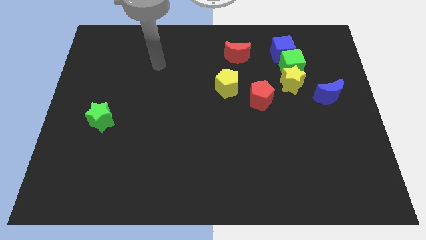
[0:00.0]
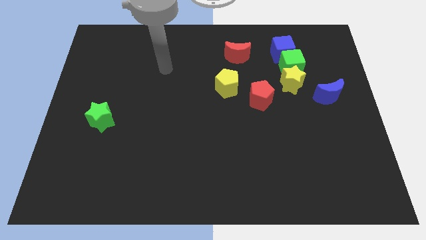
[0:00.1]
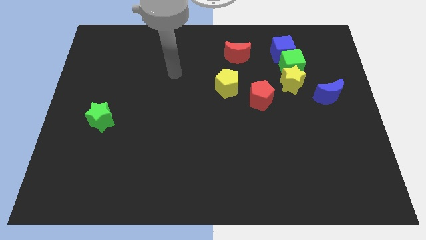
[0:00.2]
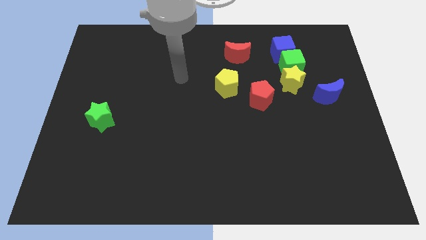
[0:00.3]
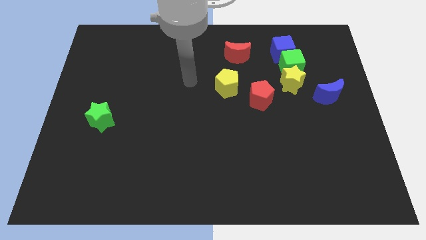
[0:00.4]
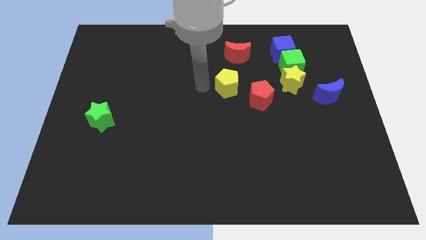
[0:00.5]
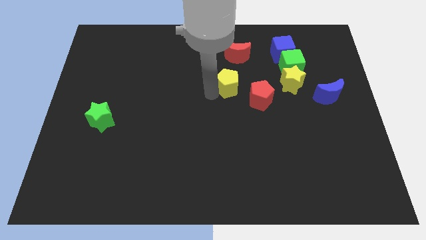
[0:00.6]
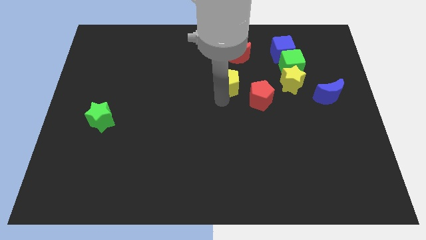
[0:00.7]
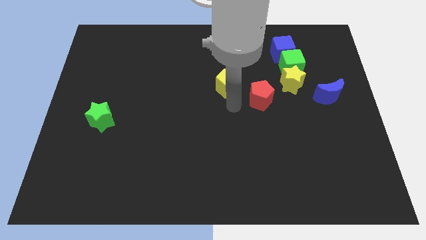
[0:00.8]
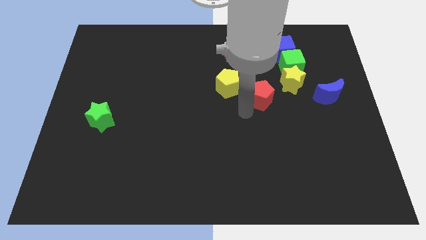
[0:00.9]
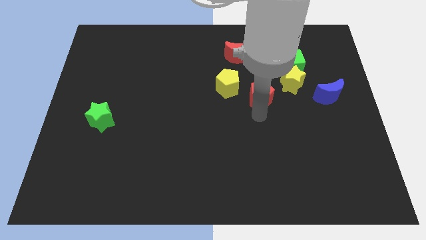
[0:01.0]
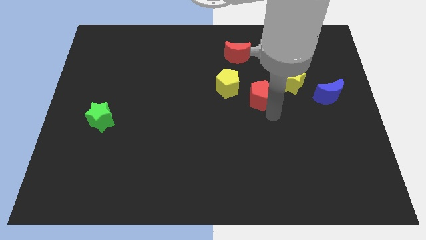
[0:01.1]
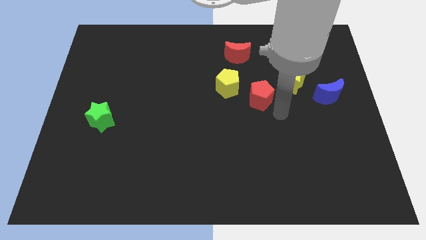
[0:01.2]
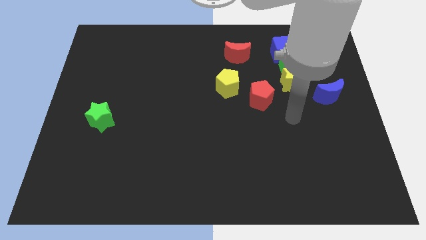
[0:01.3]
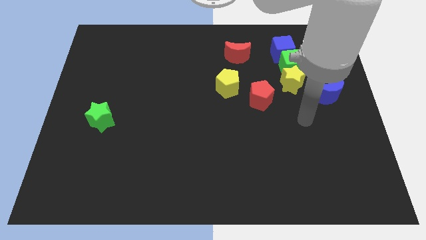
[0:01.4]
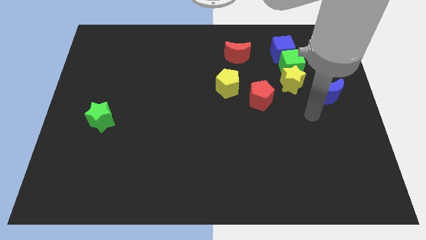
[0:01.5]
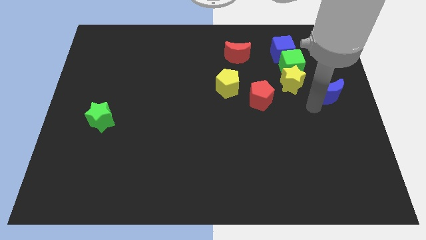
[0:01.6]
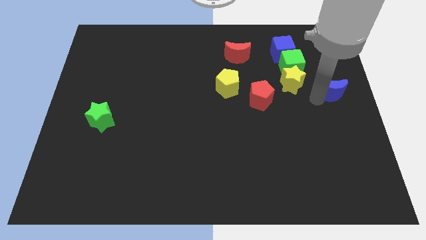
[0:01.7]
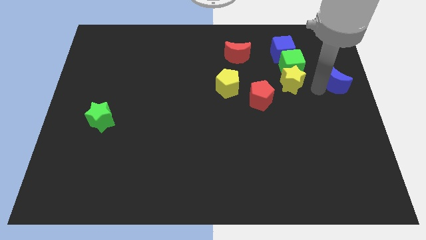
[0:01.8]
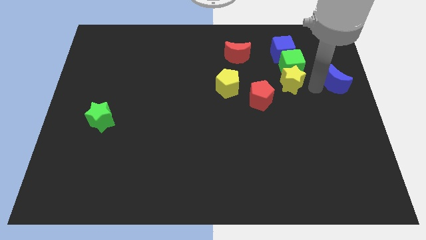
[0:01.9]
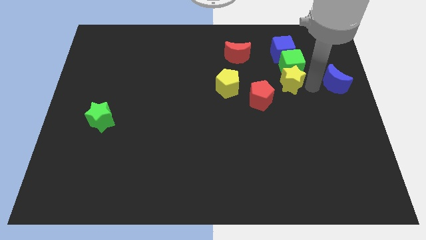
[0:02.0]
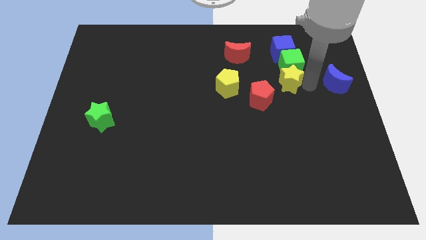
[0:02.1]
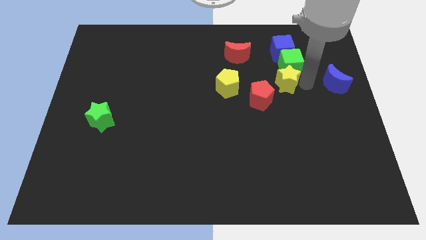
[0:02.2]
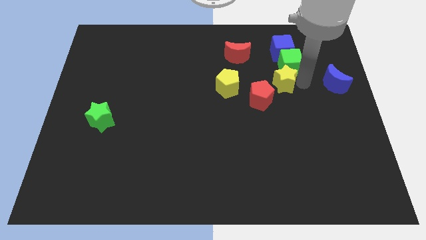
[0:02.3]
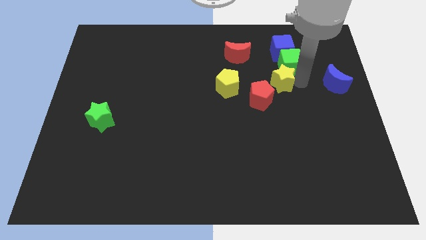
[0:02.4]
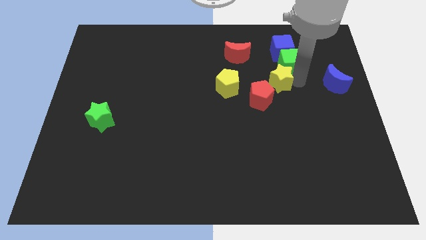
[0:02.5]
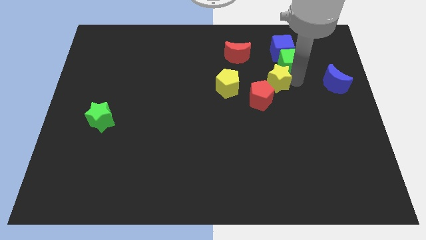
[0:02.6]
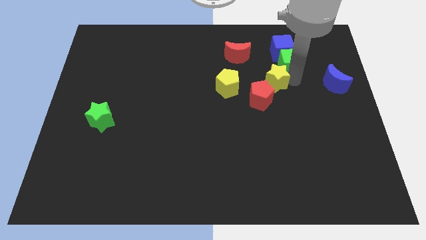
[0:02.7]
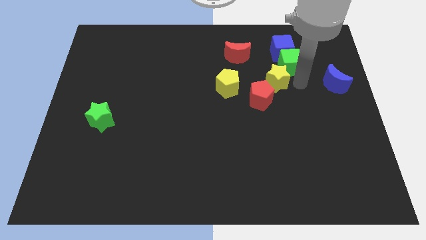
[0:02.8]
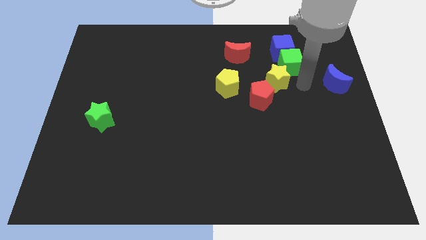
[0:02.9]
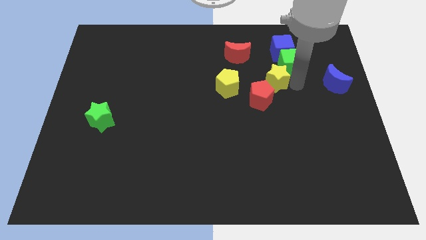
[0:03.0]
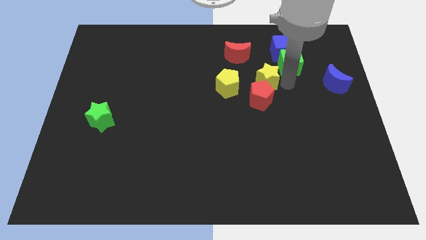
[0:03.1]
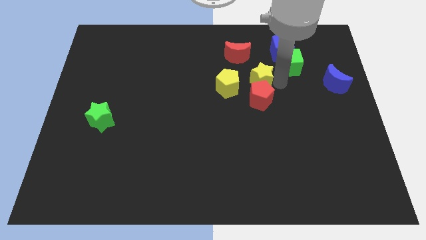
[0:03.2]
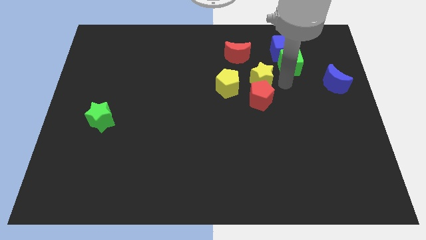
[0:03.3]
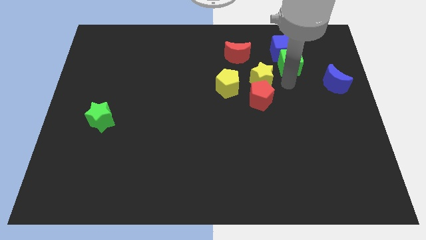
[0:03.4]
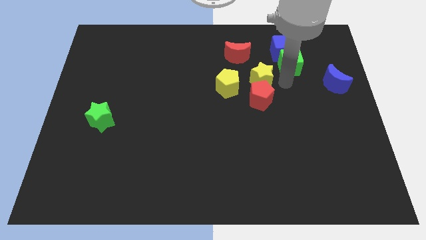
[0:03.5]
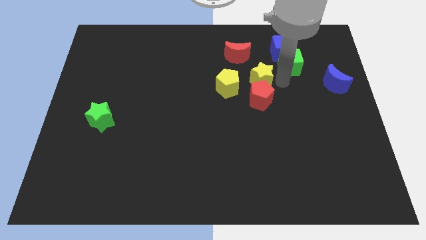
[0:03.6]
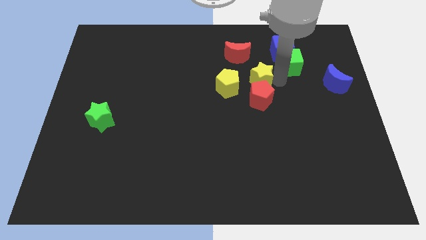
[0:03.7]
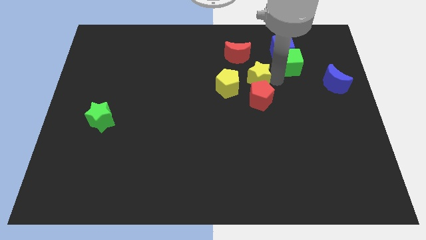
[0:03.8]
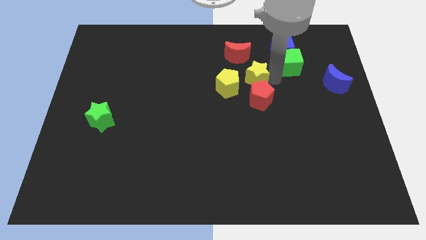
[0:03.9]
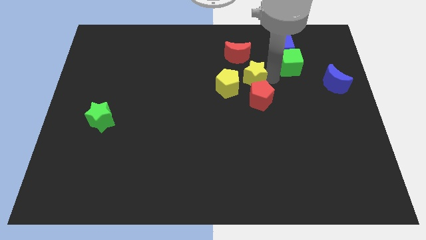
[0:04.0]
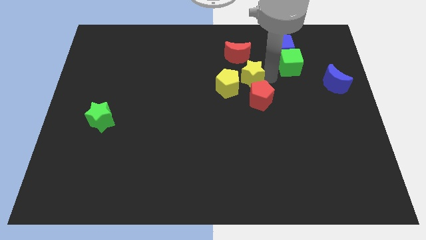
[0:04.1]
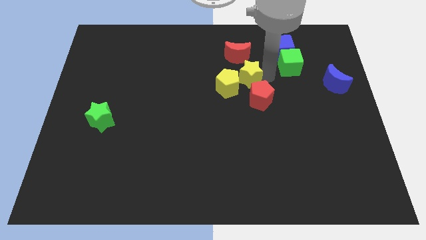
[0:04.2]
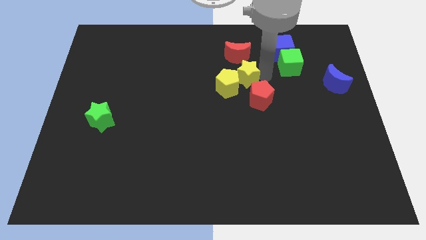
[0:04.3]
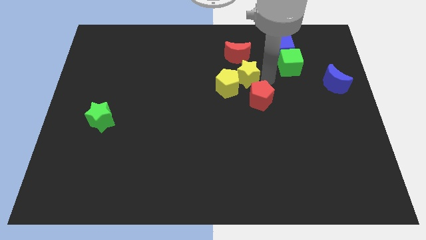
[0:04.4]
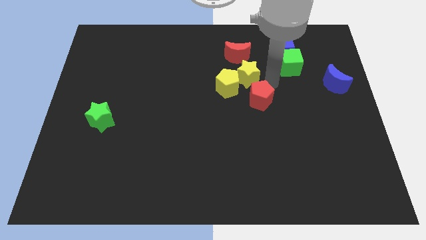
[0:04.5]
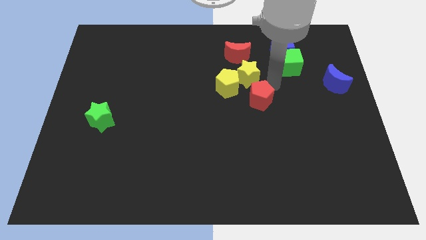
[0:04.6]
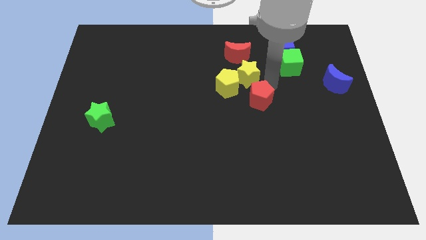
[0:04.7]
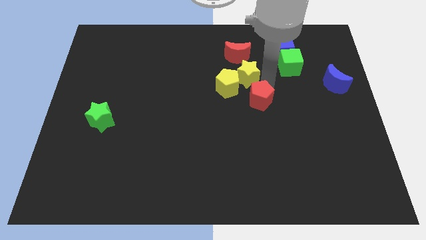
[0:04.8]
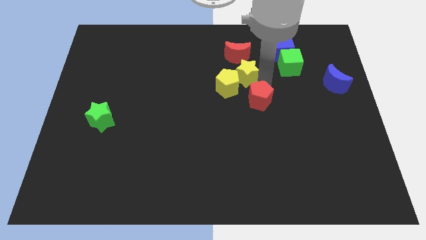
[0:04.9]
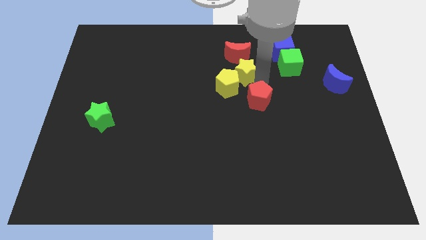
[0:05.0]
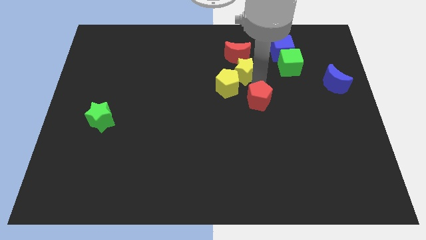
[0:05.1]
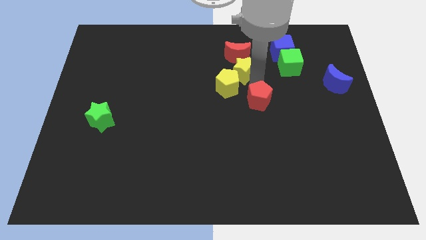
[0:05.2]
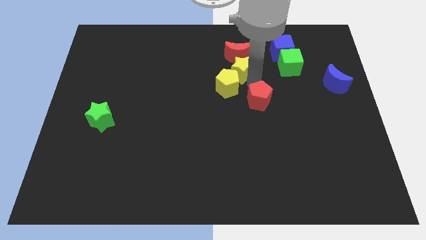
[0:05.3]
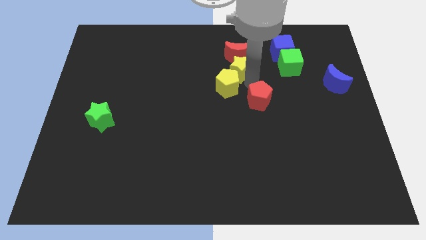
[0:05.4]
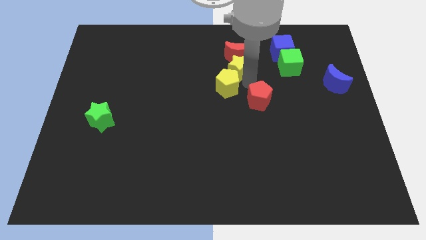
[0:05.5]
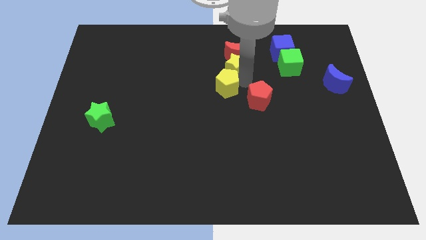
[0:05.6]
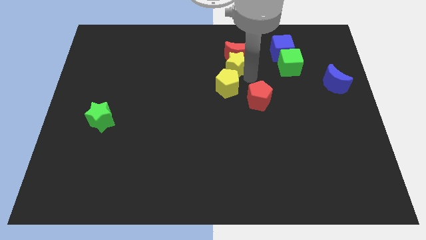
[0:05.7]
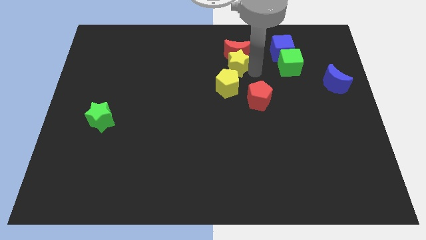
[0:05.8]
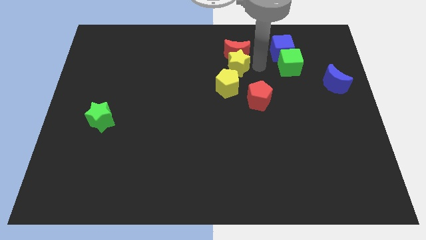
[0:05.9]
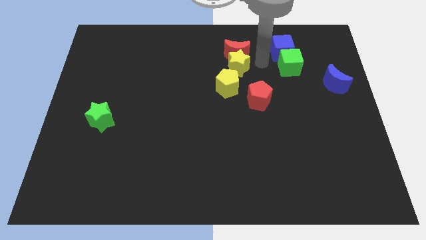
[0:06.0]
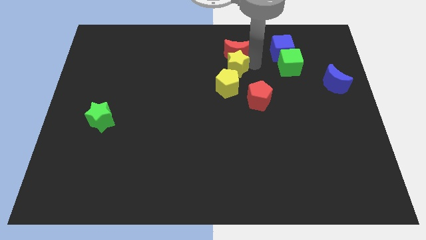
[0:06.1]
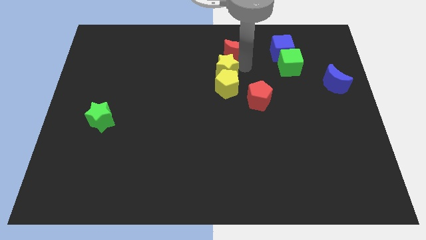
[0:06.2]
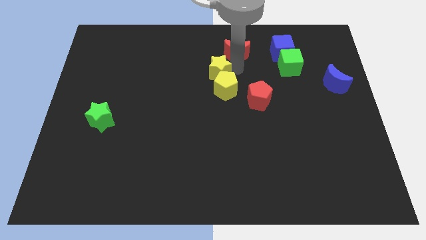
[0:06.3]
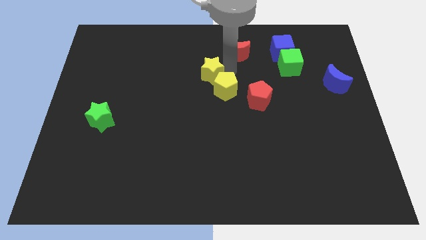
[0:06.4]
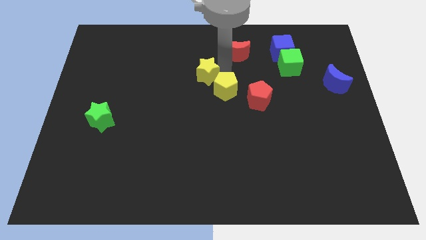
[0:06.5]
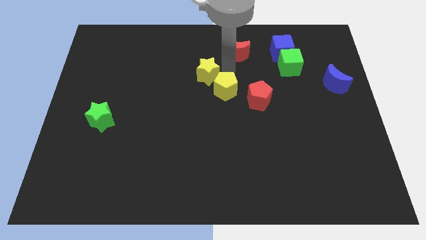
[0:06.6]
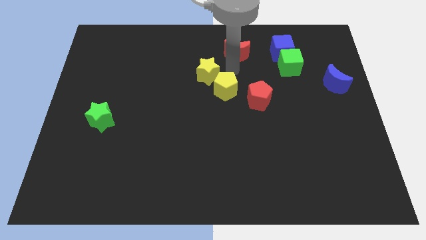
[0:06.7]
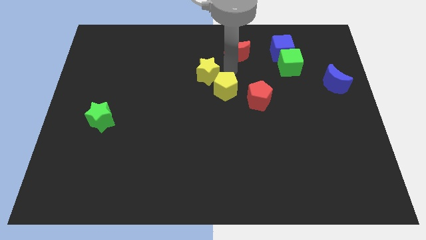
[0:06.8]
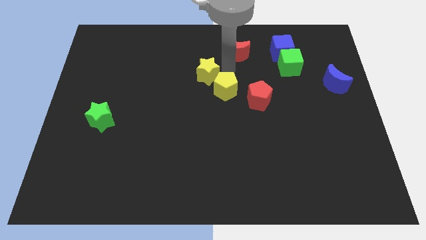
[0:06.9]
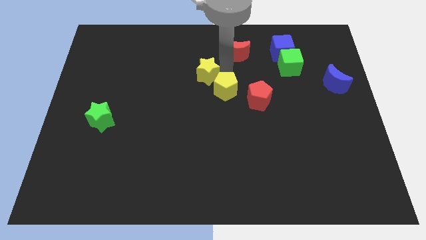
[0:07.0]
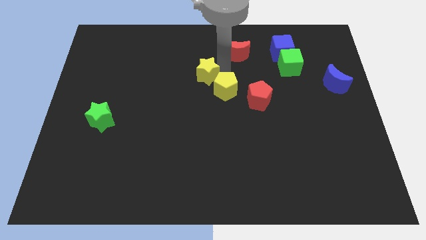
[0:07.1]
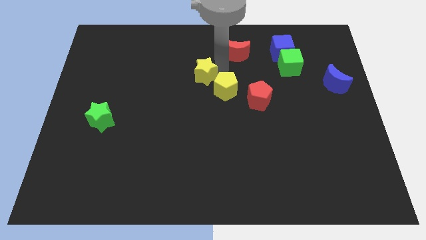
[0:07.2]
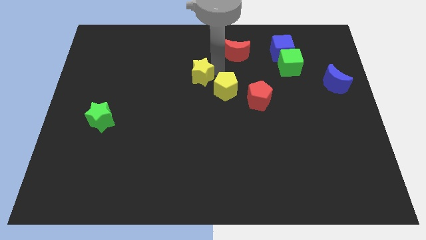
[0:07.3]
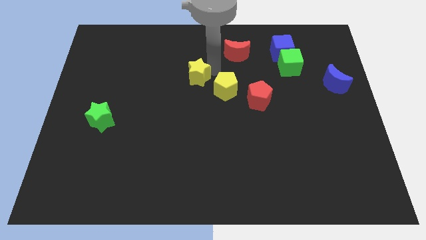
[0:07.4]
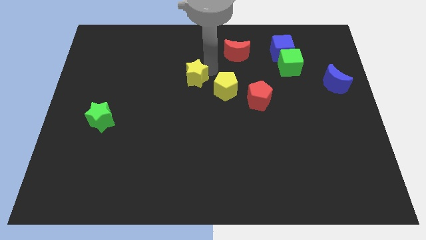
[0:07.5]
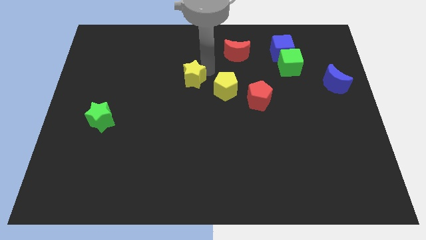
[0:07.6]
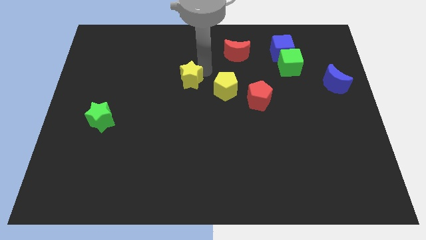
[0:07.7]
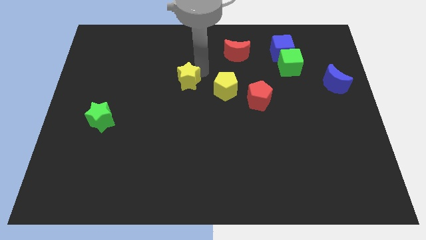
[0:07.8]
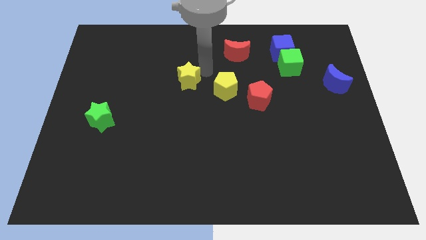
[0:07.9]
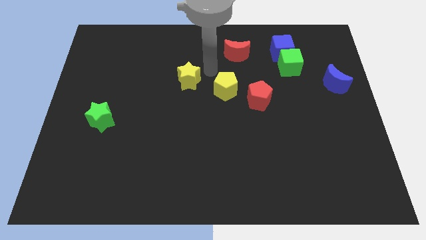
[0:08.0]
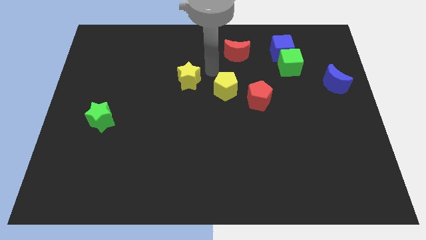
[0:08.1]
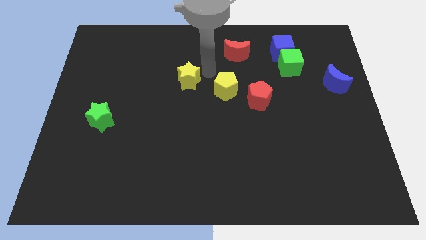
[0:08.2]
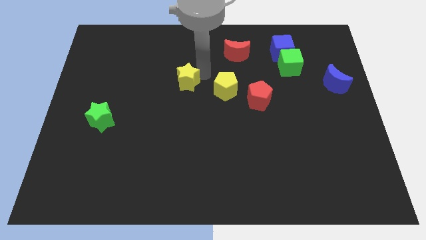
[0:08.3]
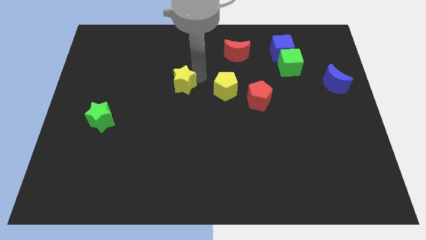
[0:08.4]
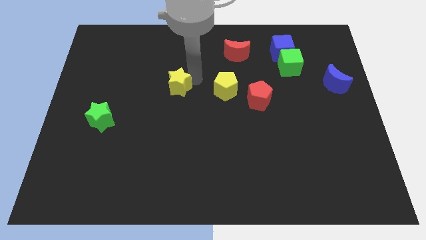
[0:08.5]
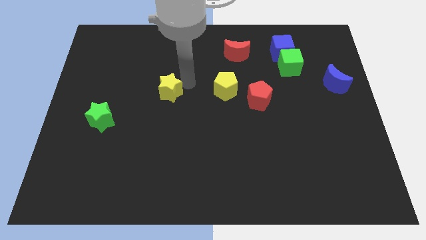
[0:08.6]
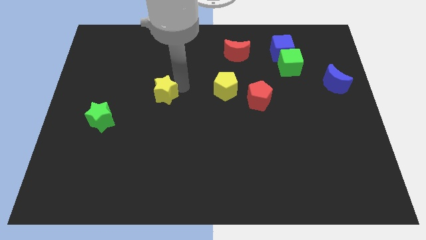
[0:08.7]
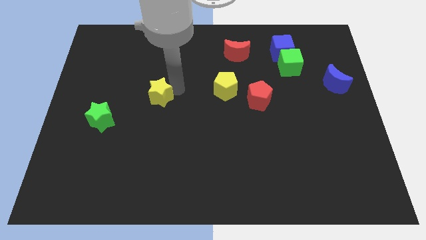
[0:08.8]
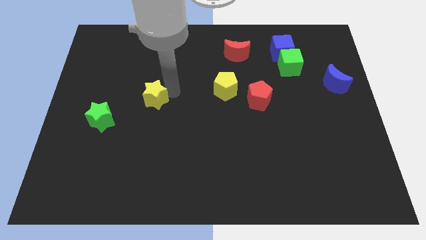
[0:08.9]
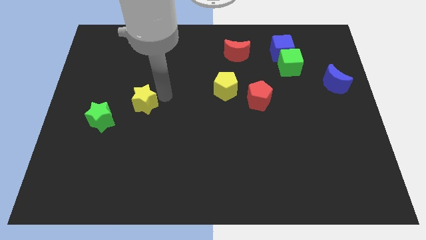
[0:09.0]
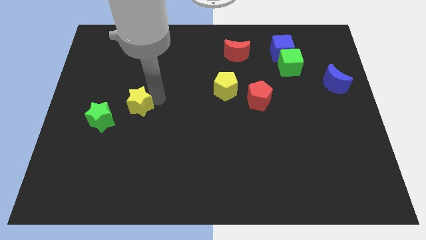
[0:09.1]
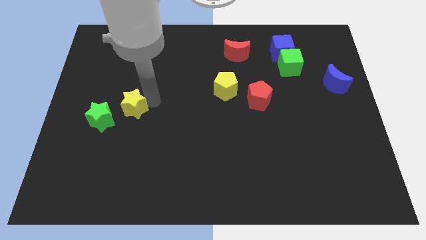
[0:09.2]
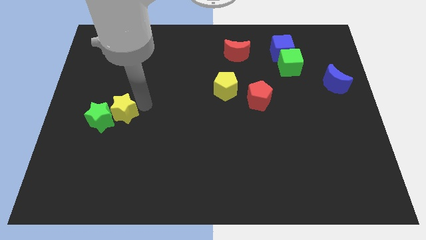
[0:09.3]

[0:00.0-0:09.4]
move the yellow star towards the green star
